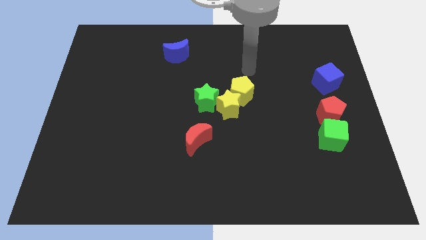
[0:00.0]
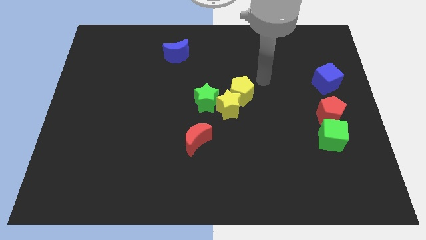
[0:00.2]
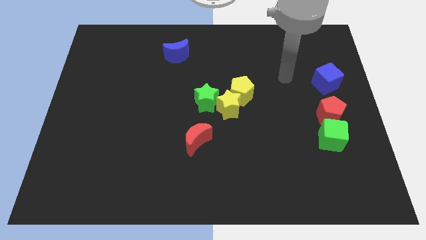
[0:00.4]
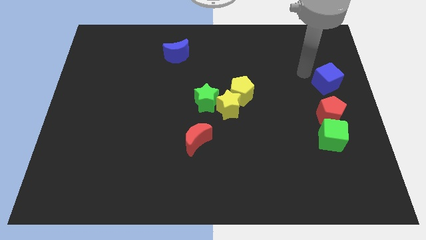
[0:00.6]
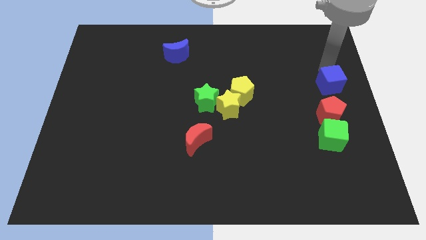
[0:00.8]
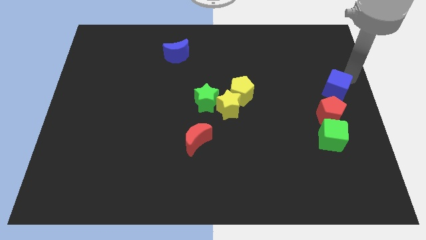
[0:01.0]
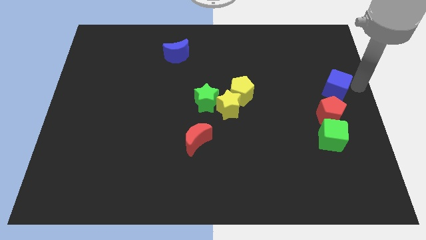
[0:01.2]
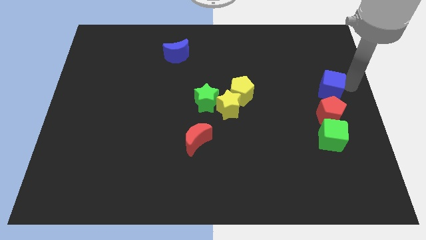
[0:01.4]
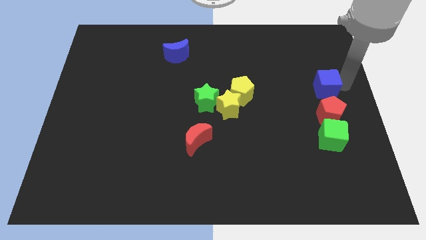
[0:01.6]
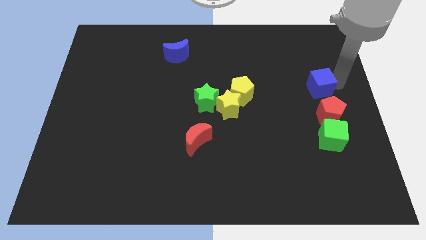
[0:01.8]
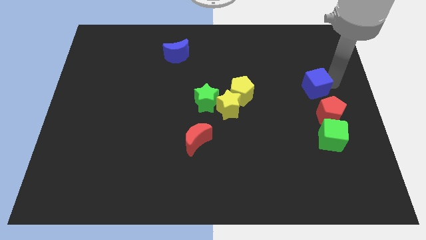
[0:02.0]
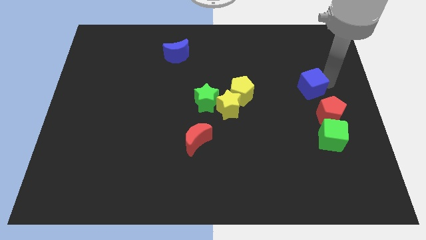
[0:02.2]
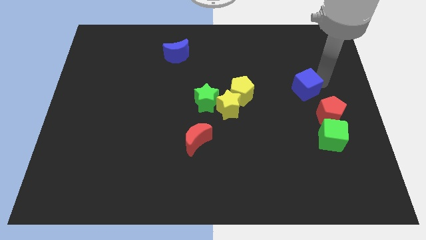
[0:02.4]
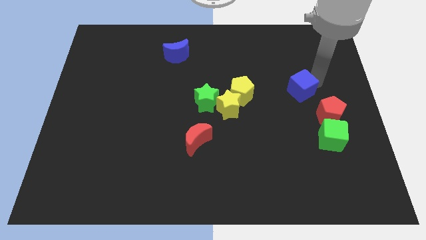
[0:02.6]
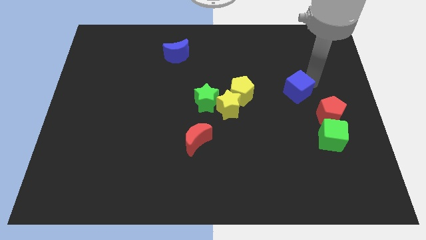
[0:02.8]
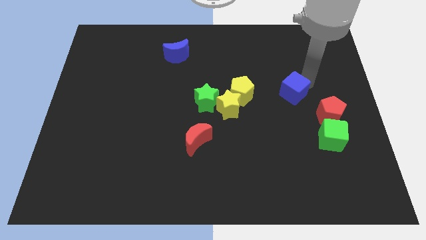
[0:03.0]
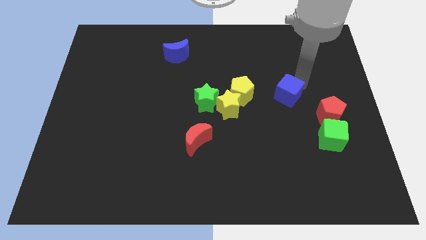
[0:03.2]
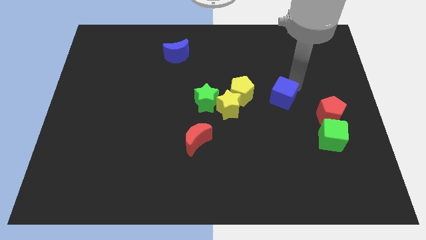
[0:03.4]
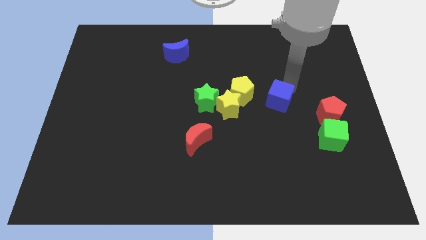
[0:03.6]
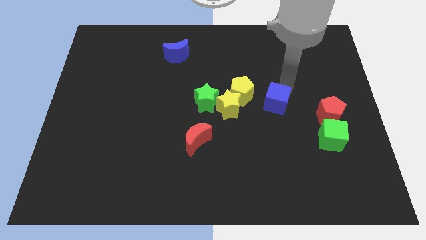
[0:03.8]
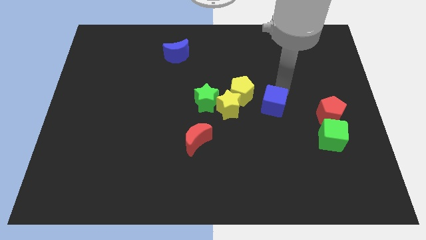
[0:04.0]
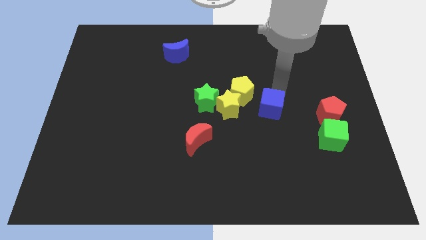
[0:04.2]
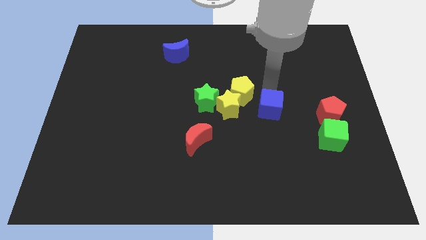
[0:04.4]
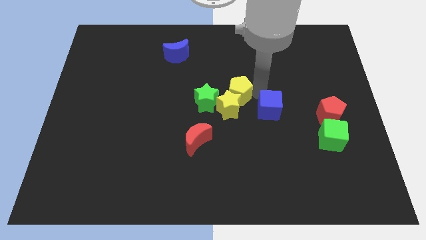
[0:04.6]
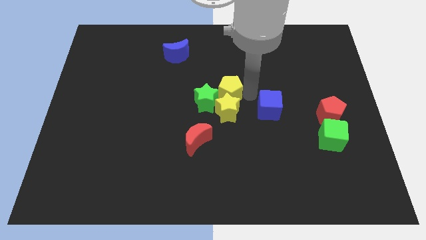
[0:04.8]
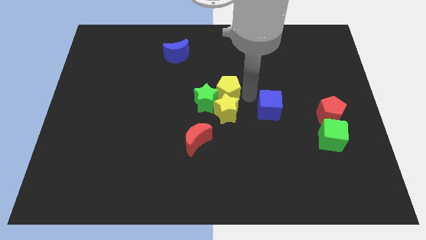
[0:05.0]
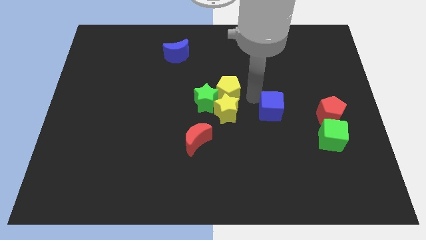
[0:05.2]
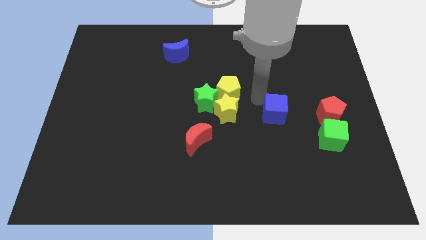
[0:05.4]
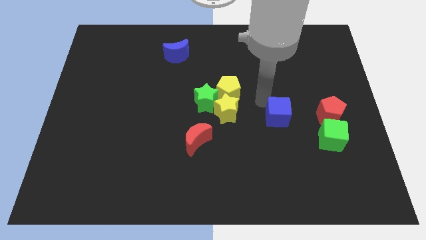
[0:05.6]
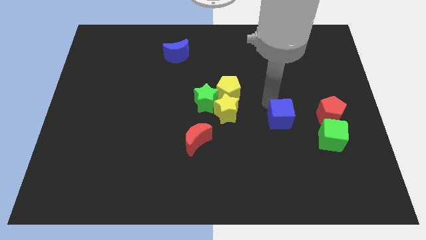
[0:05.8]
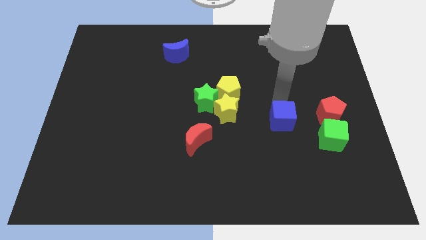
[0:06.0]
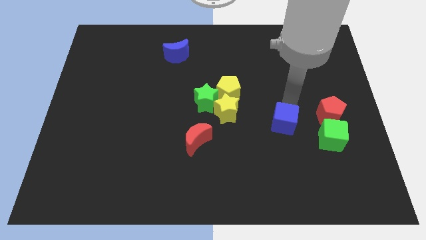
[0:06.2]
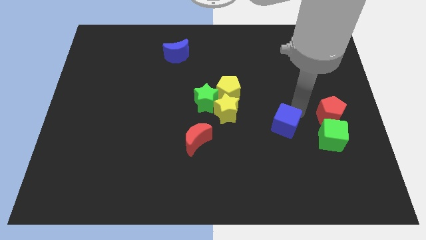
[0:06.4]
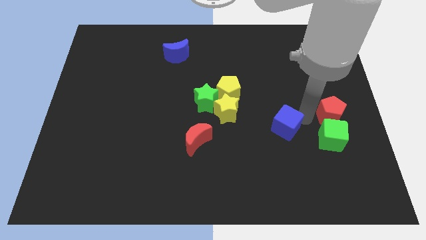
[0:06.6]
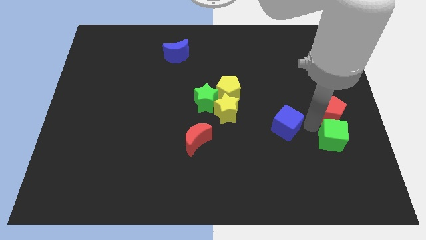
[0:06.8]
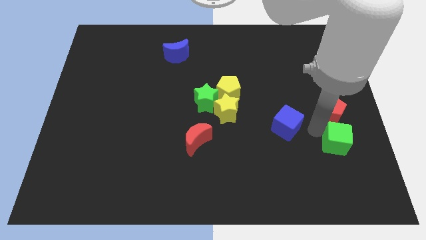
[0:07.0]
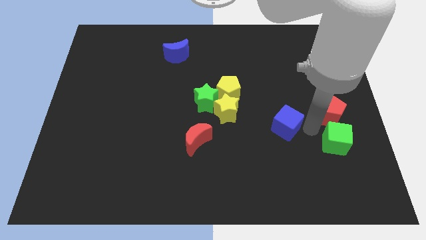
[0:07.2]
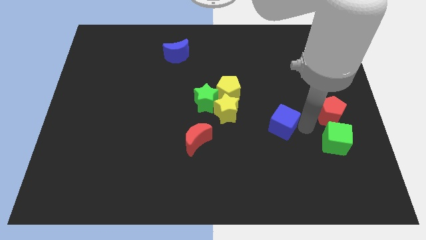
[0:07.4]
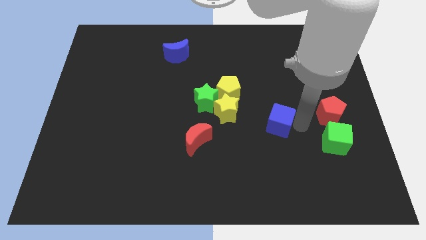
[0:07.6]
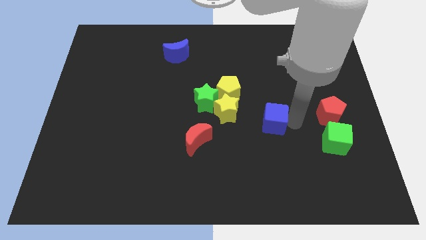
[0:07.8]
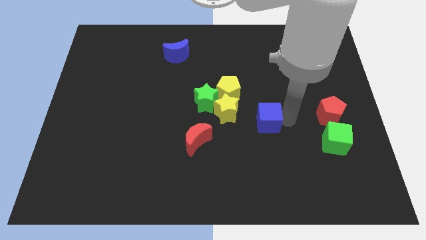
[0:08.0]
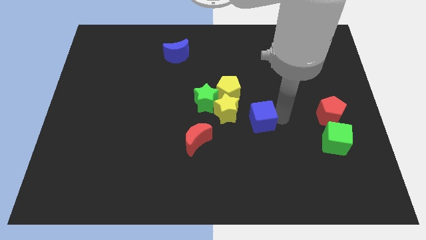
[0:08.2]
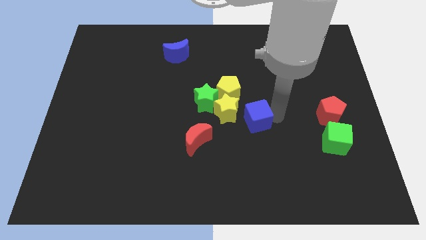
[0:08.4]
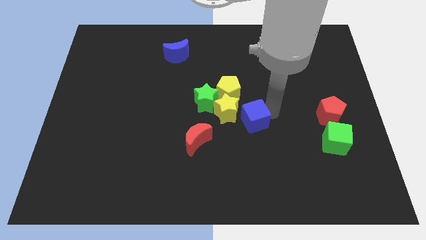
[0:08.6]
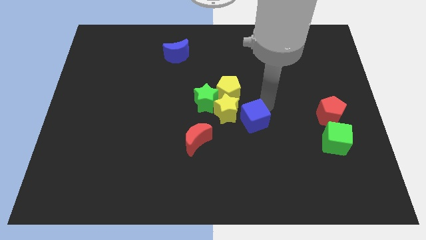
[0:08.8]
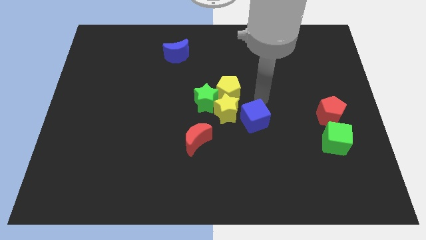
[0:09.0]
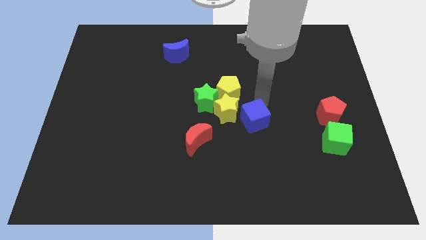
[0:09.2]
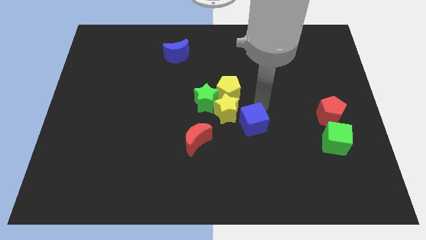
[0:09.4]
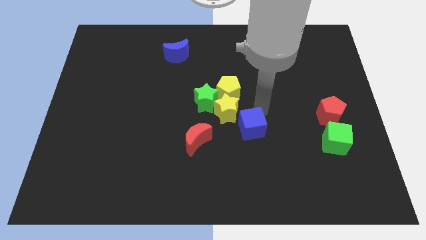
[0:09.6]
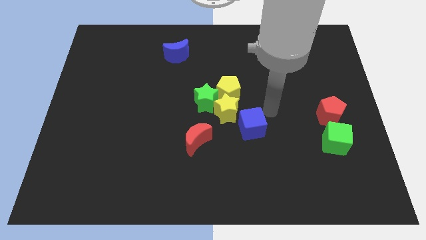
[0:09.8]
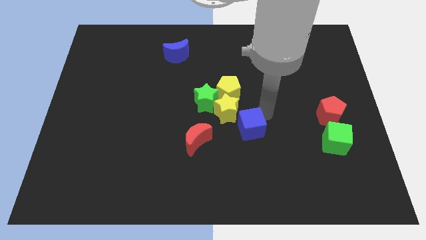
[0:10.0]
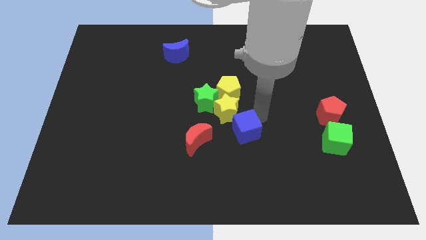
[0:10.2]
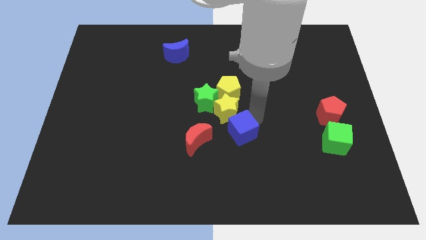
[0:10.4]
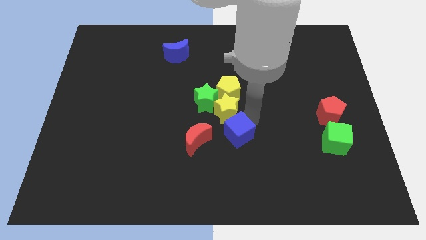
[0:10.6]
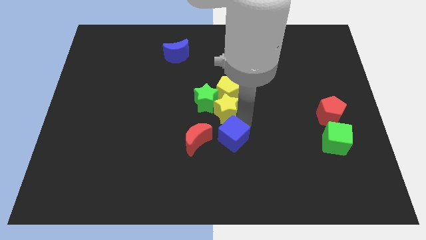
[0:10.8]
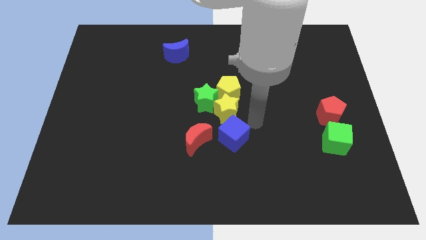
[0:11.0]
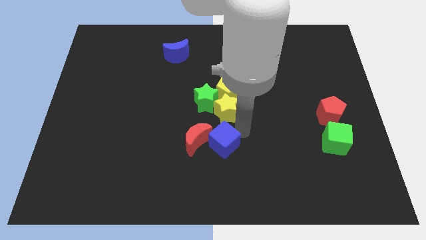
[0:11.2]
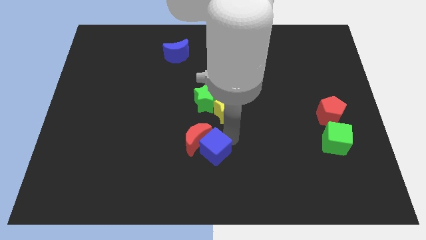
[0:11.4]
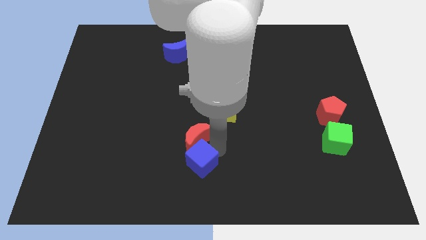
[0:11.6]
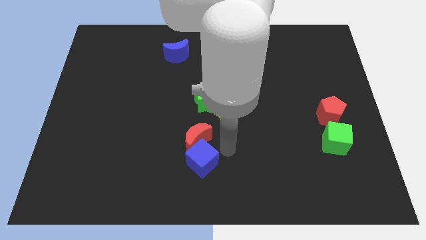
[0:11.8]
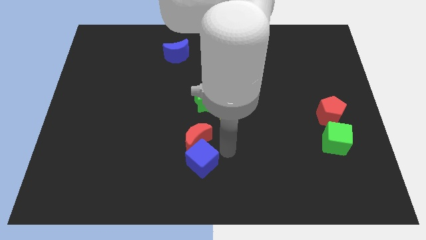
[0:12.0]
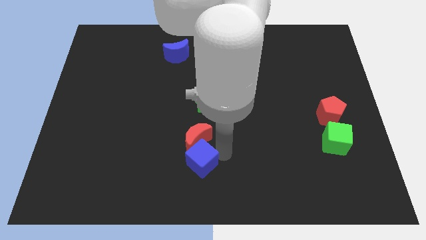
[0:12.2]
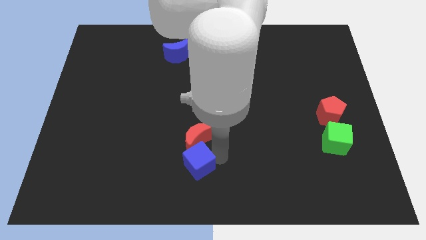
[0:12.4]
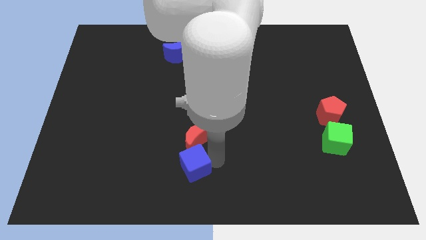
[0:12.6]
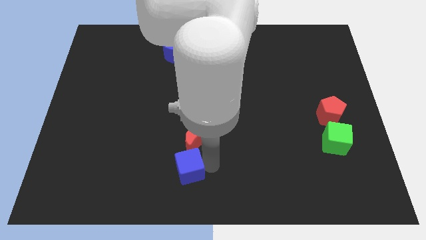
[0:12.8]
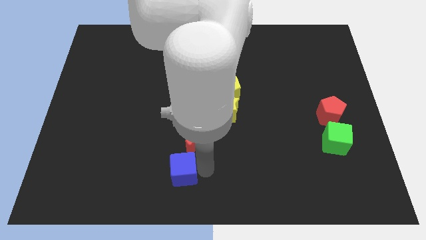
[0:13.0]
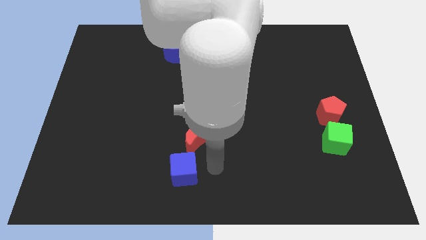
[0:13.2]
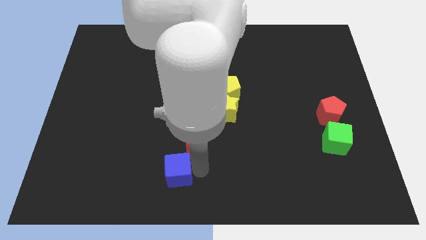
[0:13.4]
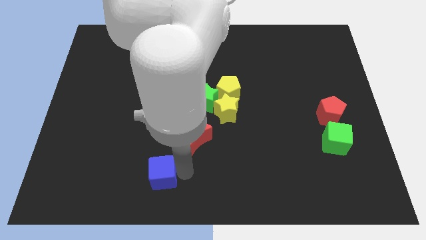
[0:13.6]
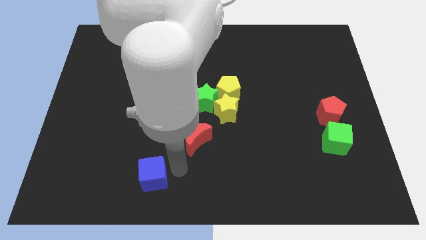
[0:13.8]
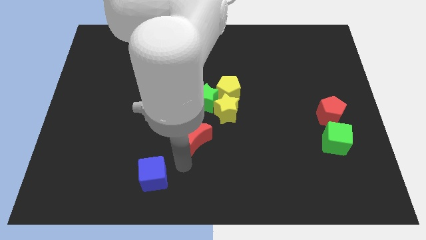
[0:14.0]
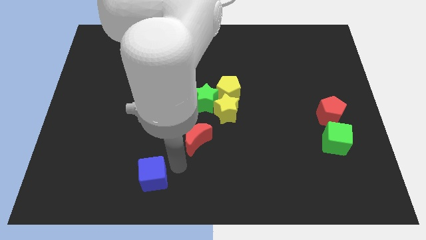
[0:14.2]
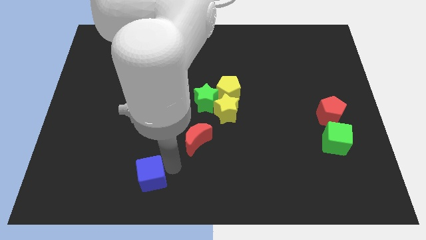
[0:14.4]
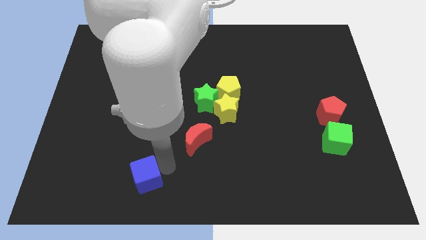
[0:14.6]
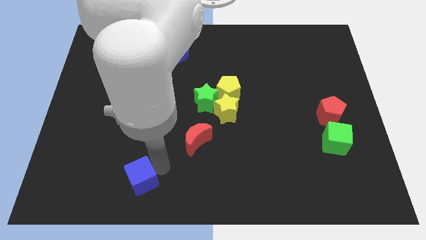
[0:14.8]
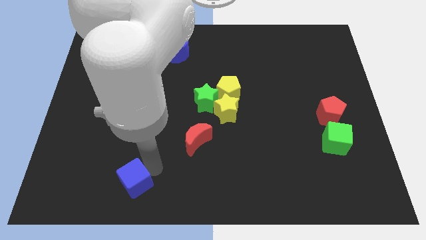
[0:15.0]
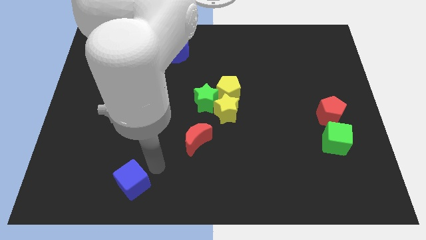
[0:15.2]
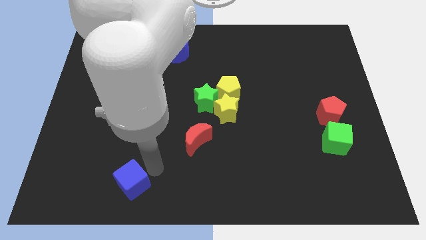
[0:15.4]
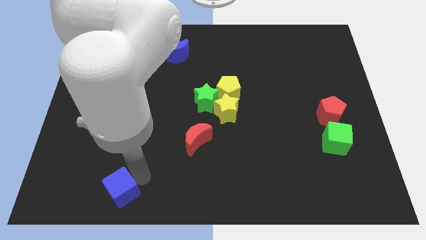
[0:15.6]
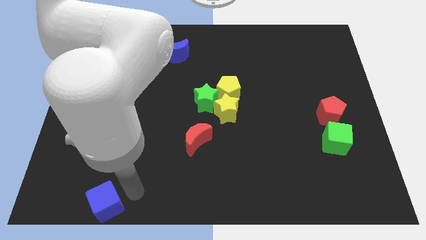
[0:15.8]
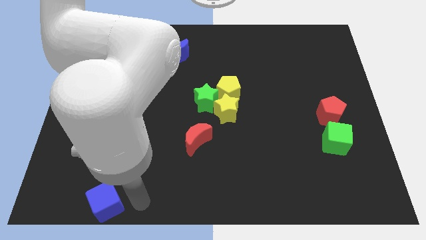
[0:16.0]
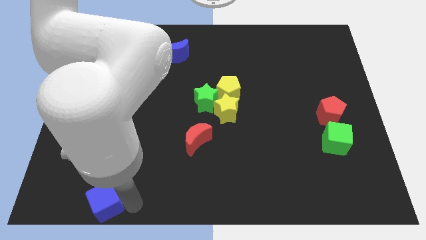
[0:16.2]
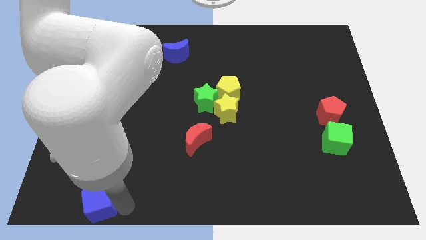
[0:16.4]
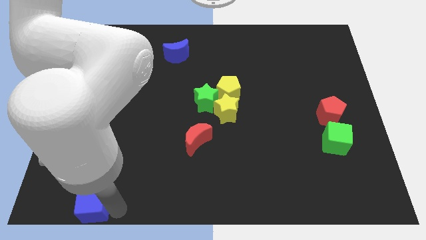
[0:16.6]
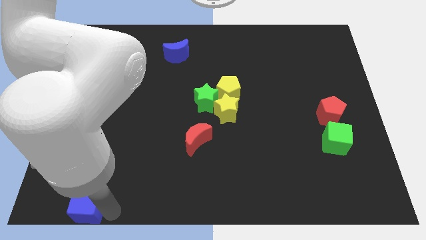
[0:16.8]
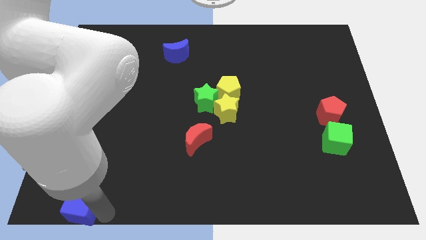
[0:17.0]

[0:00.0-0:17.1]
slide the blue cube to the bottom left of the board
